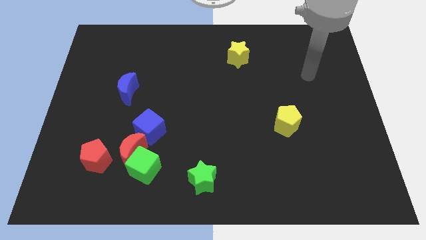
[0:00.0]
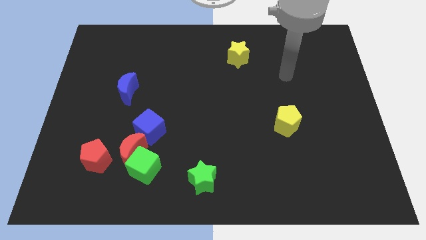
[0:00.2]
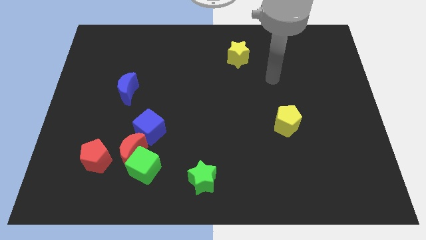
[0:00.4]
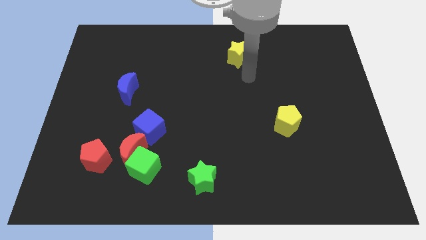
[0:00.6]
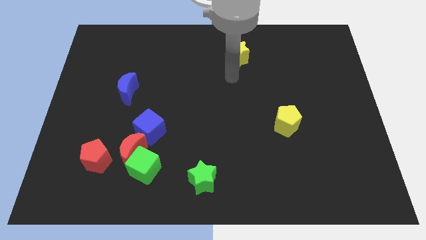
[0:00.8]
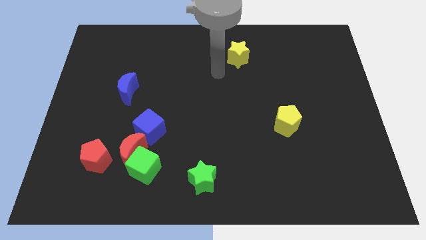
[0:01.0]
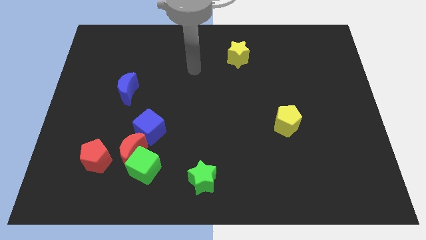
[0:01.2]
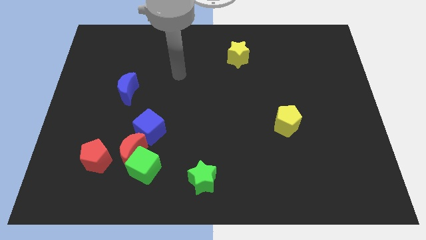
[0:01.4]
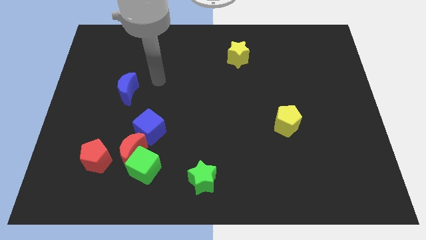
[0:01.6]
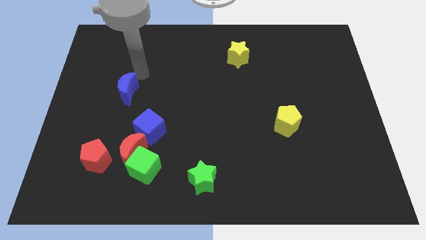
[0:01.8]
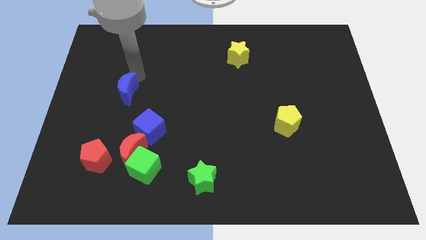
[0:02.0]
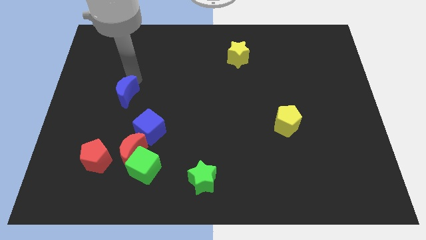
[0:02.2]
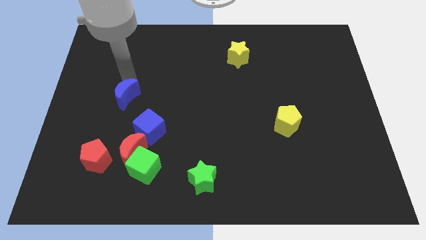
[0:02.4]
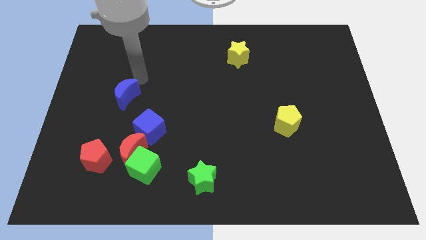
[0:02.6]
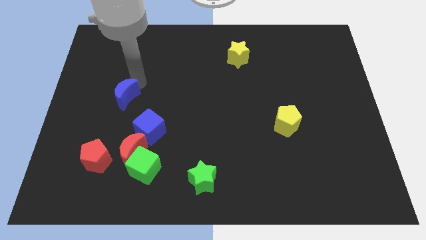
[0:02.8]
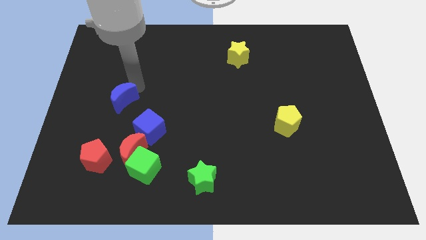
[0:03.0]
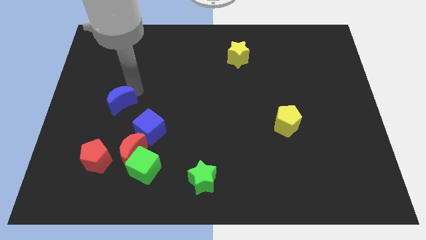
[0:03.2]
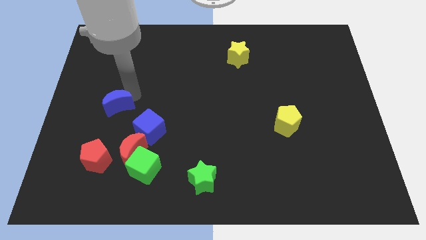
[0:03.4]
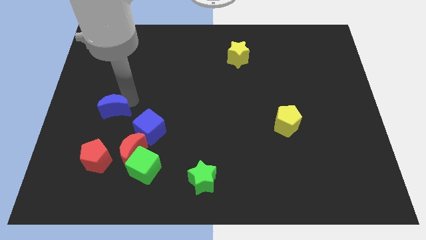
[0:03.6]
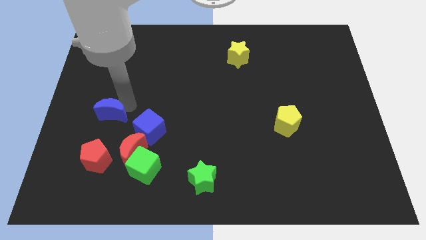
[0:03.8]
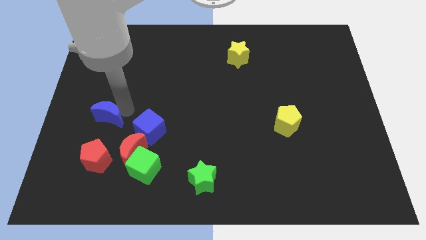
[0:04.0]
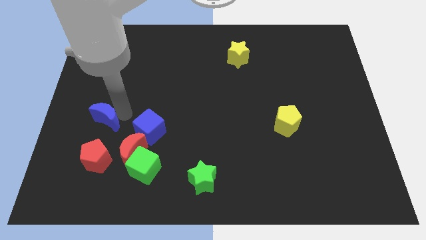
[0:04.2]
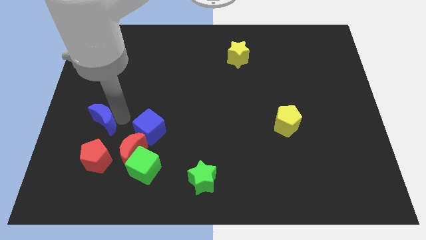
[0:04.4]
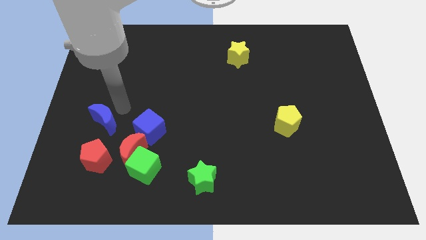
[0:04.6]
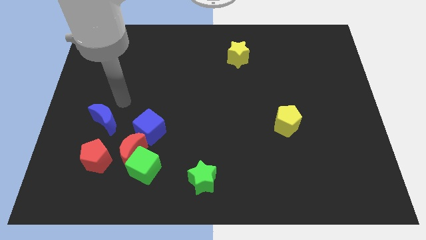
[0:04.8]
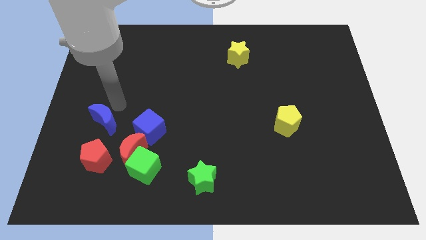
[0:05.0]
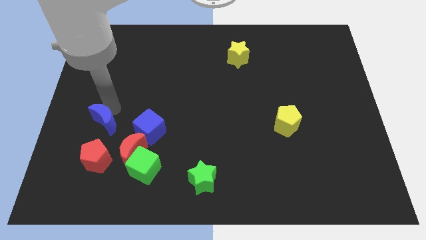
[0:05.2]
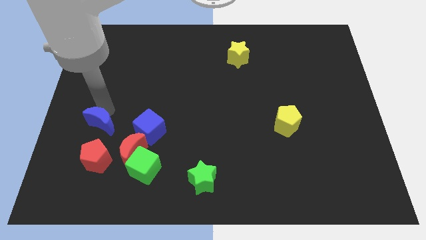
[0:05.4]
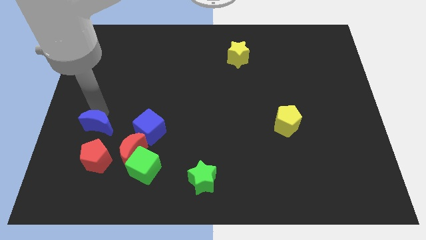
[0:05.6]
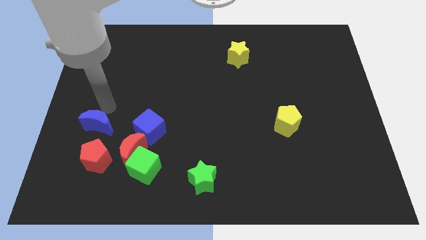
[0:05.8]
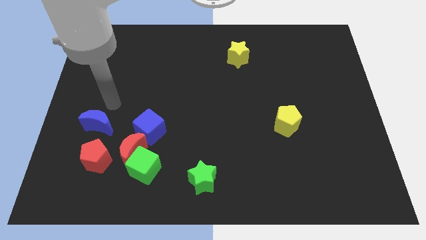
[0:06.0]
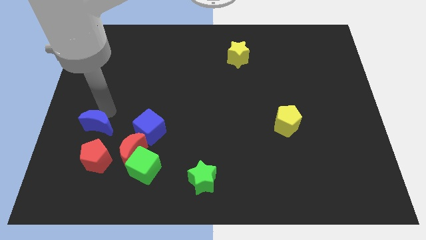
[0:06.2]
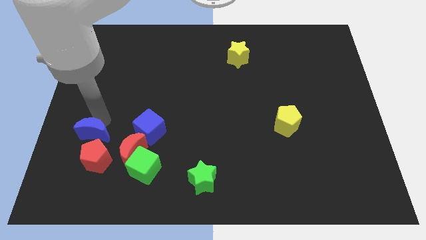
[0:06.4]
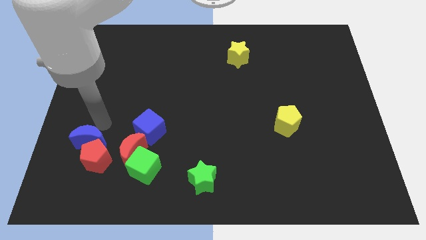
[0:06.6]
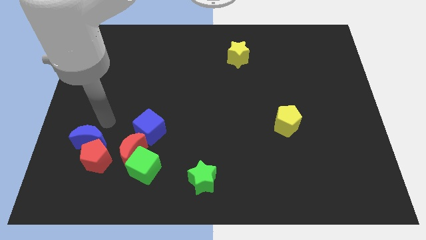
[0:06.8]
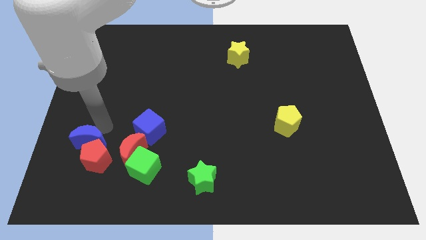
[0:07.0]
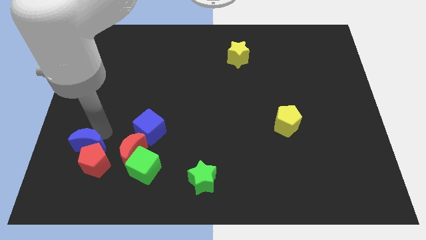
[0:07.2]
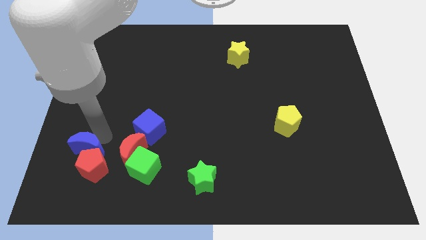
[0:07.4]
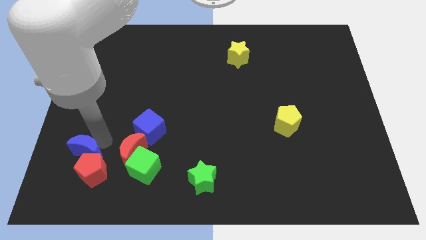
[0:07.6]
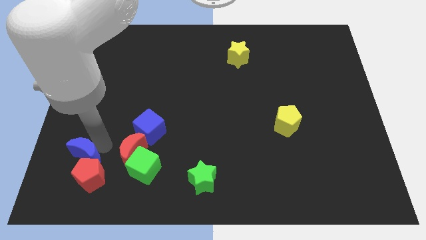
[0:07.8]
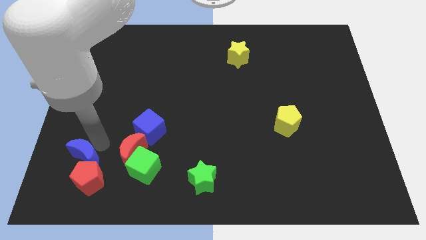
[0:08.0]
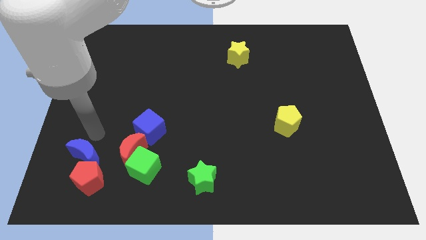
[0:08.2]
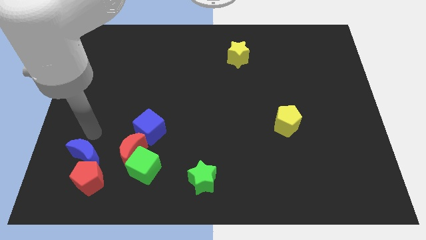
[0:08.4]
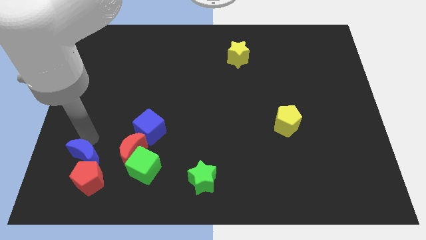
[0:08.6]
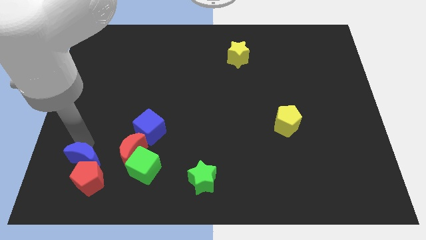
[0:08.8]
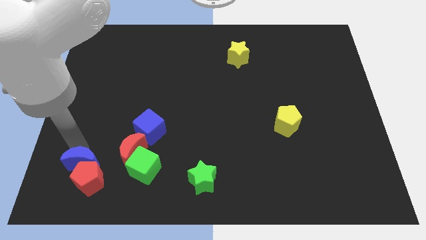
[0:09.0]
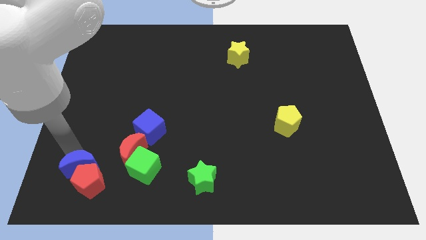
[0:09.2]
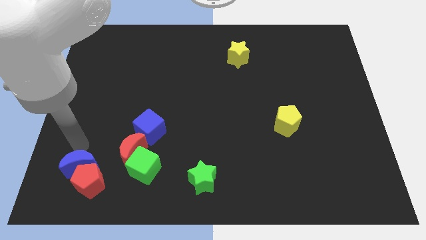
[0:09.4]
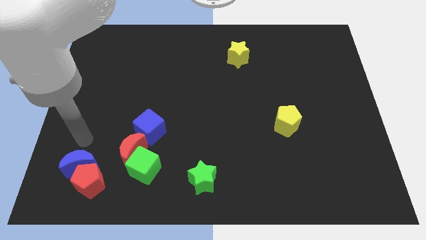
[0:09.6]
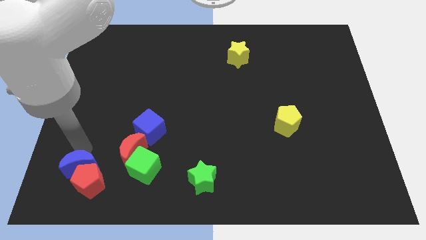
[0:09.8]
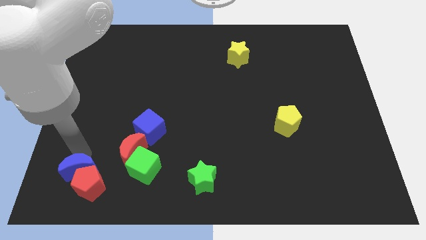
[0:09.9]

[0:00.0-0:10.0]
push the blue moon diagonally down and to the left of the red moon

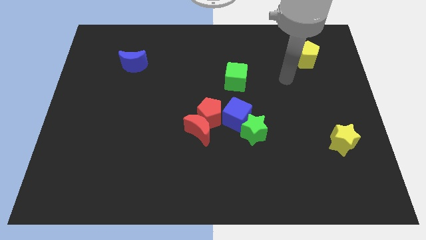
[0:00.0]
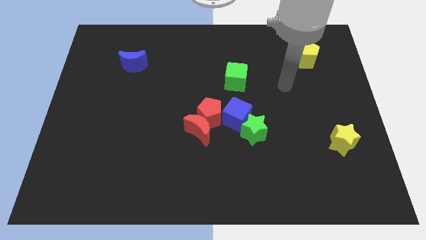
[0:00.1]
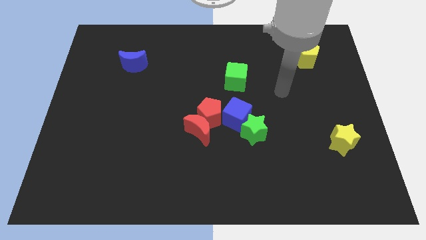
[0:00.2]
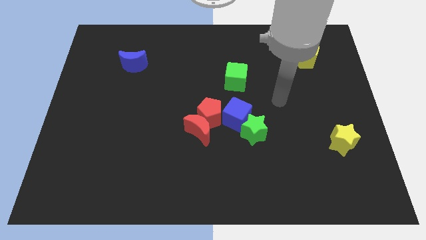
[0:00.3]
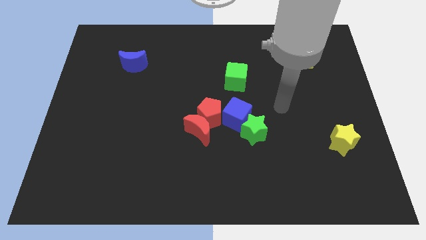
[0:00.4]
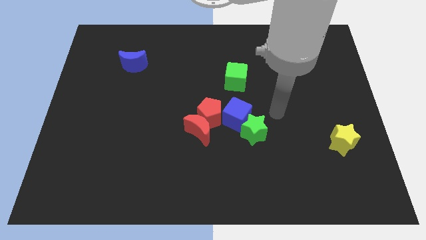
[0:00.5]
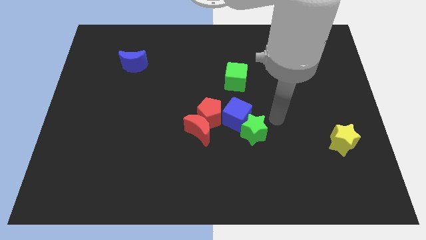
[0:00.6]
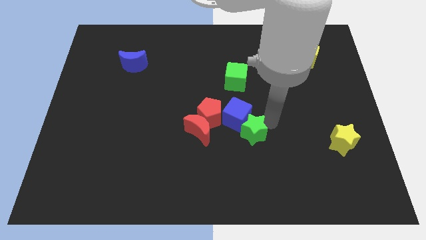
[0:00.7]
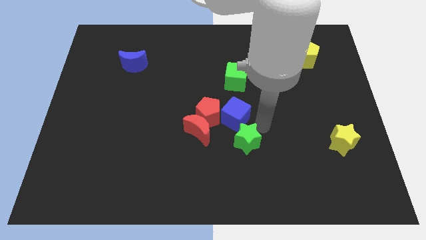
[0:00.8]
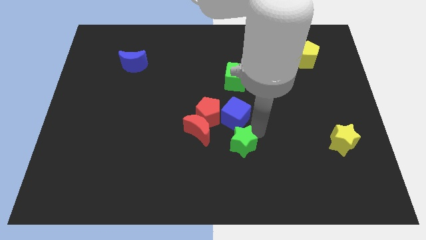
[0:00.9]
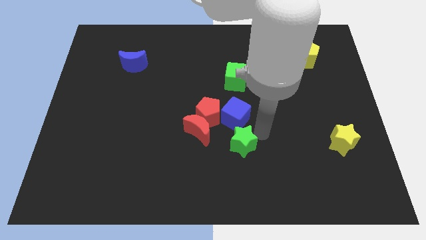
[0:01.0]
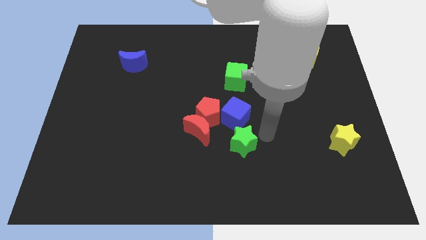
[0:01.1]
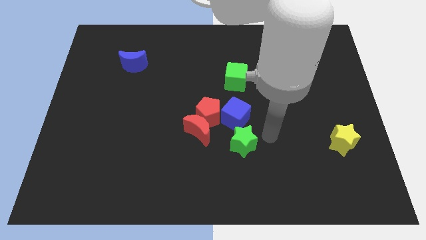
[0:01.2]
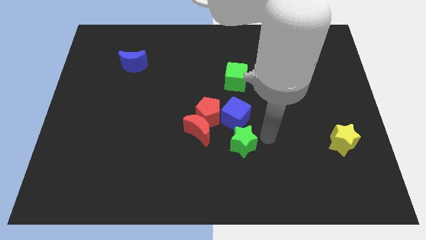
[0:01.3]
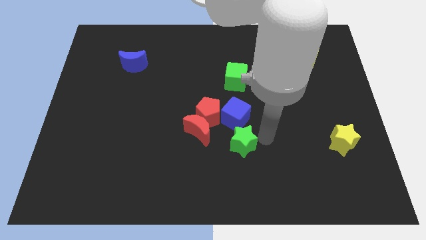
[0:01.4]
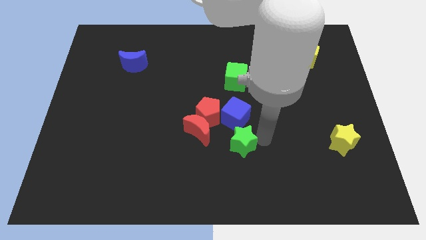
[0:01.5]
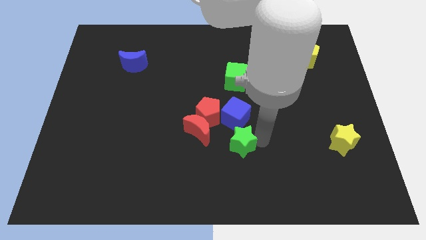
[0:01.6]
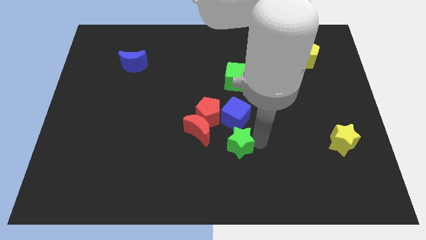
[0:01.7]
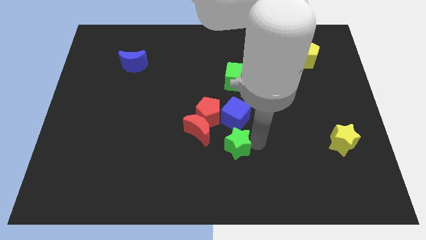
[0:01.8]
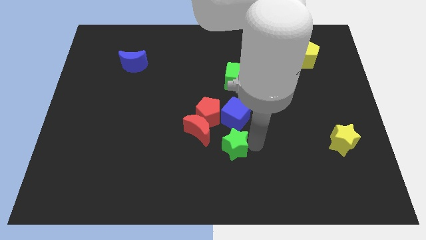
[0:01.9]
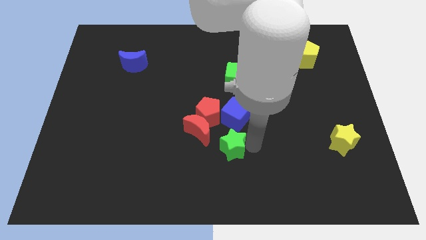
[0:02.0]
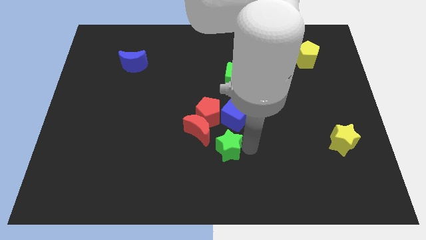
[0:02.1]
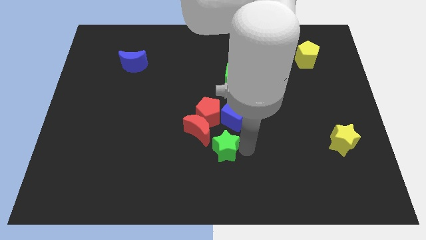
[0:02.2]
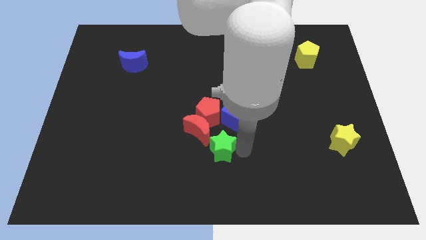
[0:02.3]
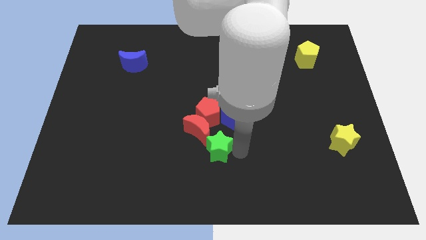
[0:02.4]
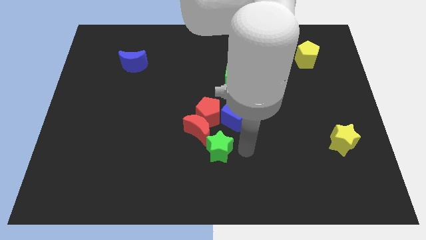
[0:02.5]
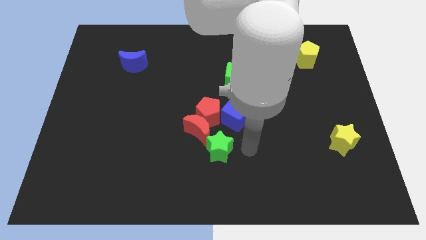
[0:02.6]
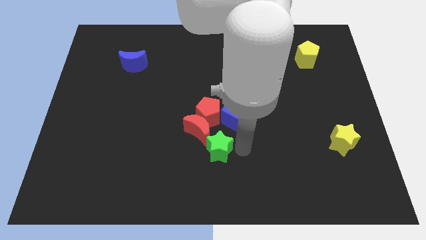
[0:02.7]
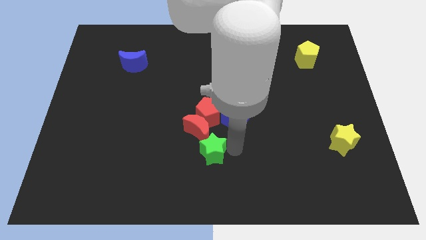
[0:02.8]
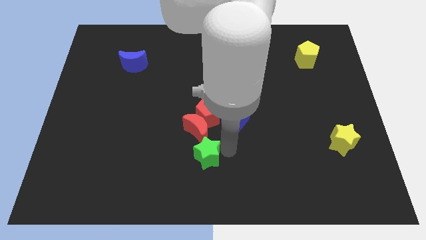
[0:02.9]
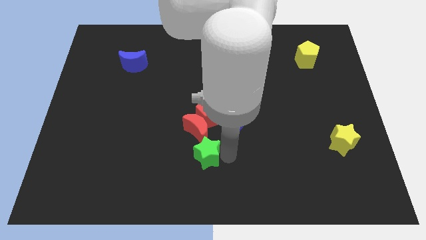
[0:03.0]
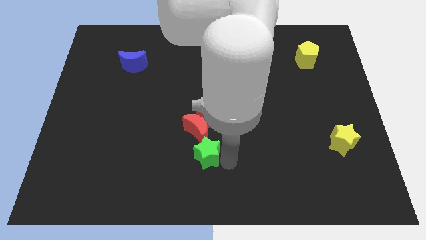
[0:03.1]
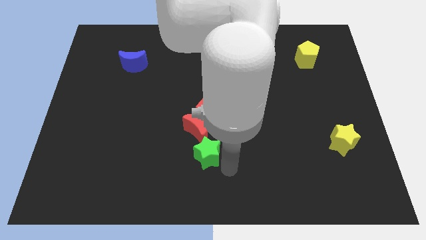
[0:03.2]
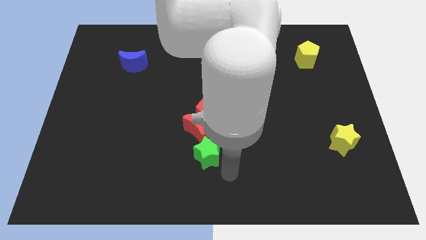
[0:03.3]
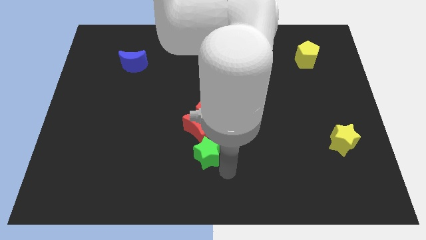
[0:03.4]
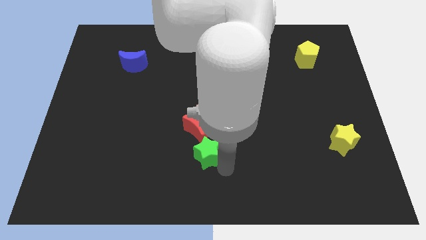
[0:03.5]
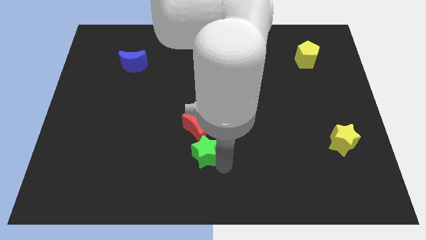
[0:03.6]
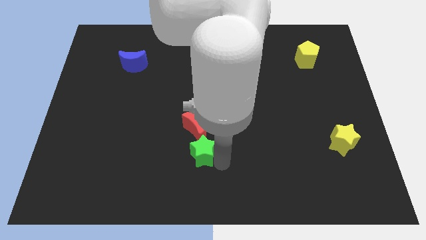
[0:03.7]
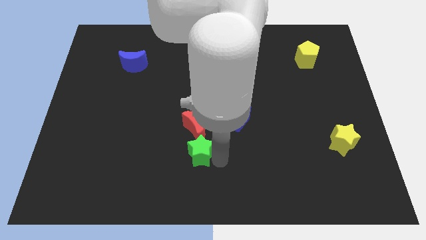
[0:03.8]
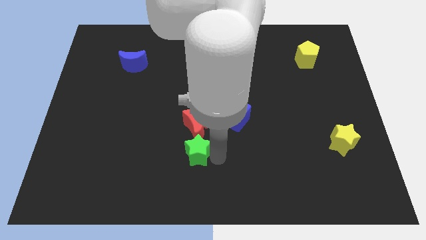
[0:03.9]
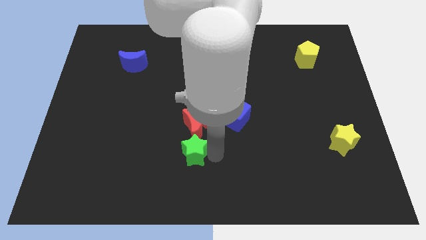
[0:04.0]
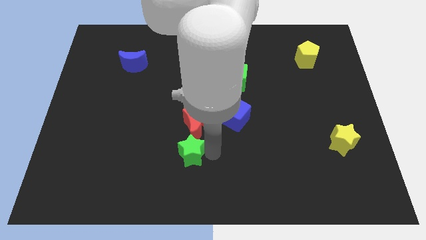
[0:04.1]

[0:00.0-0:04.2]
push the green star diagonally down and to the left of the red pentagon
